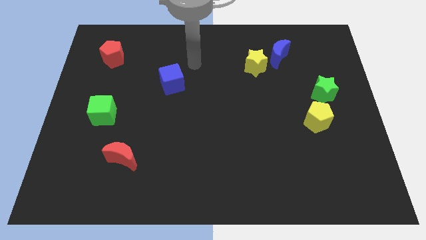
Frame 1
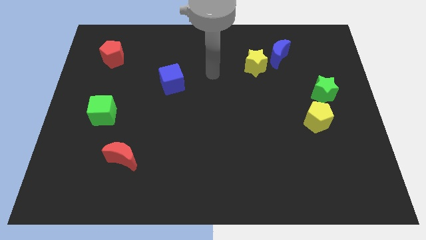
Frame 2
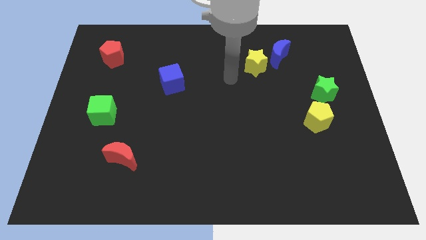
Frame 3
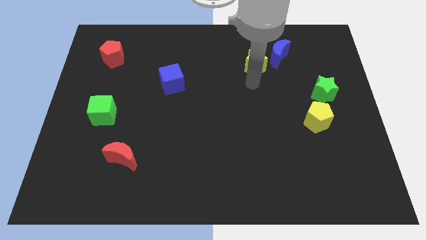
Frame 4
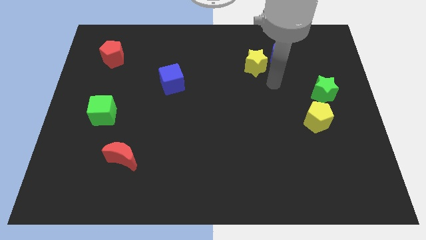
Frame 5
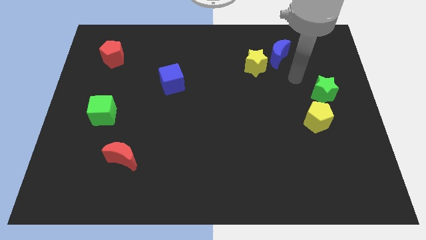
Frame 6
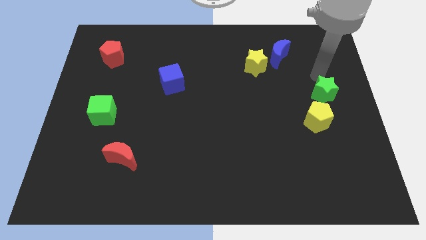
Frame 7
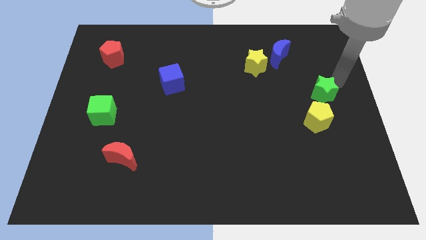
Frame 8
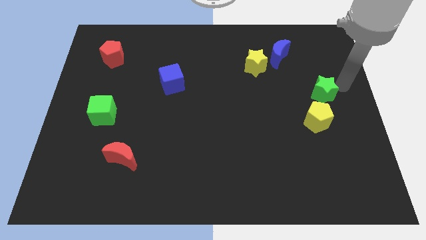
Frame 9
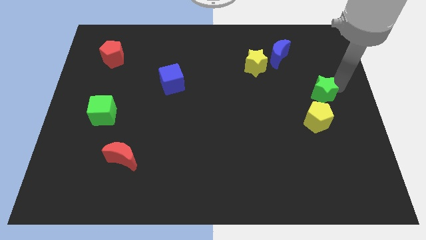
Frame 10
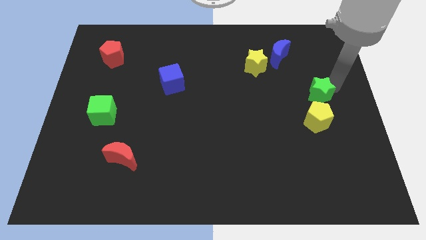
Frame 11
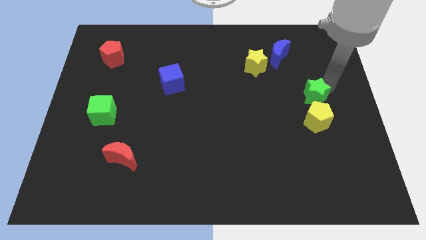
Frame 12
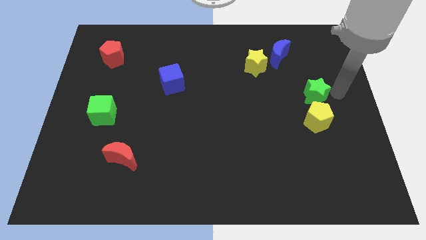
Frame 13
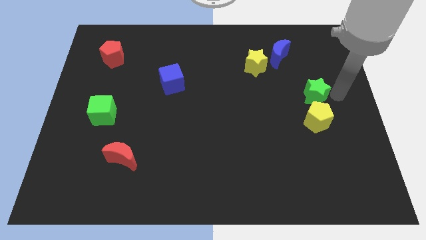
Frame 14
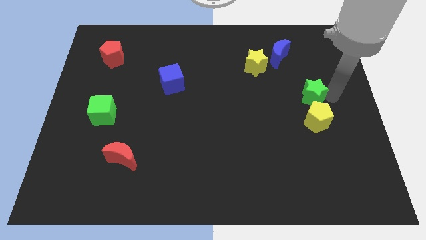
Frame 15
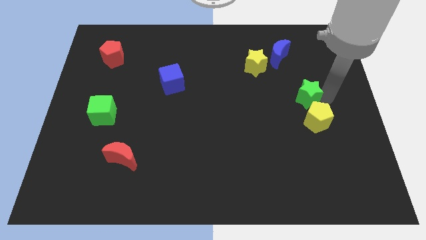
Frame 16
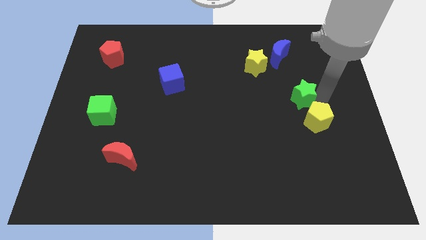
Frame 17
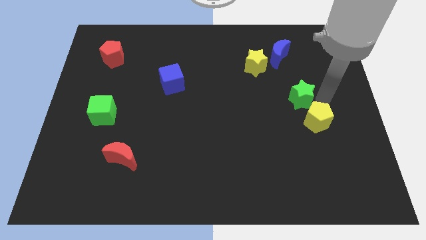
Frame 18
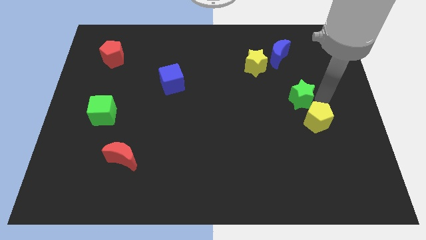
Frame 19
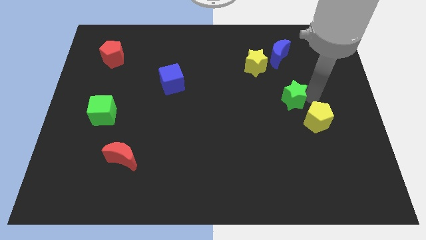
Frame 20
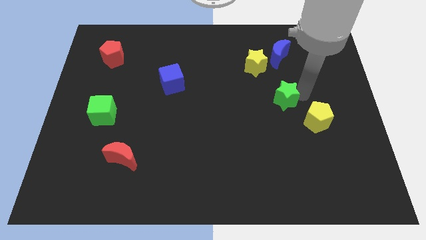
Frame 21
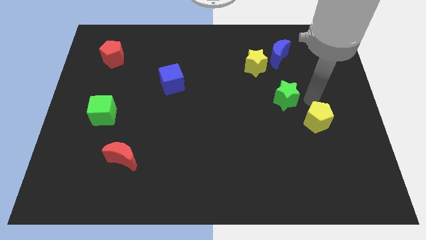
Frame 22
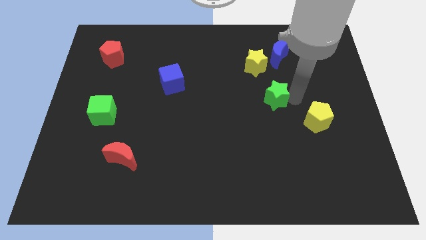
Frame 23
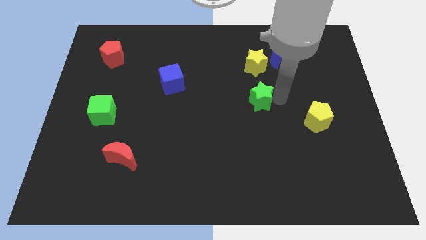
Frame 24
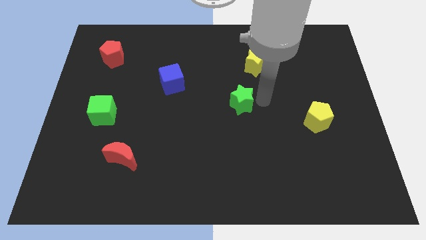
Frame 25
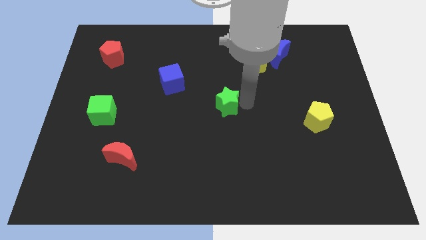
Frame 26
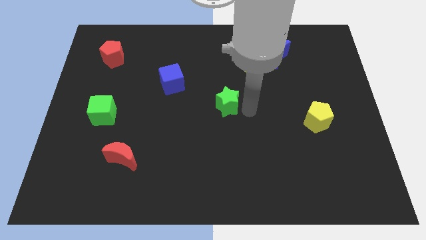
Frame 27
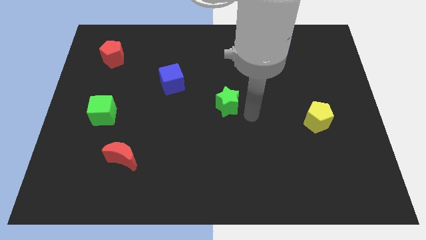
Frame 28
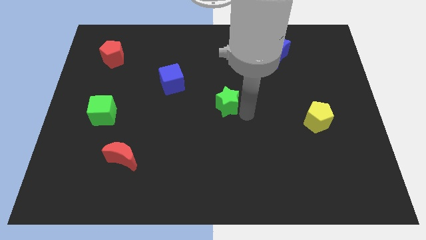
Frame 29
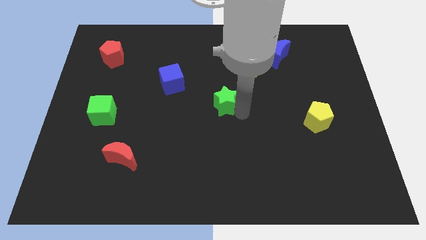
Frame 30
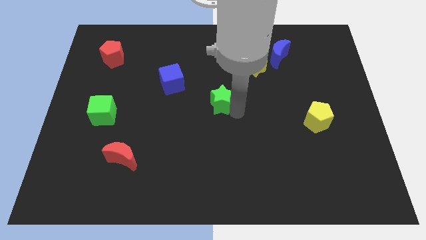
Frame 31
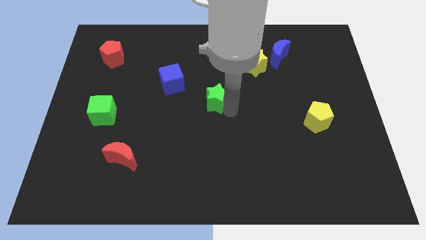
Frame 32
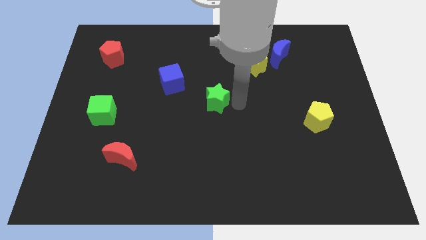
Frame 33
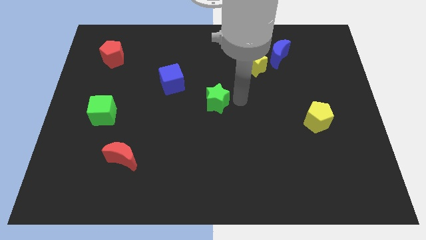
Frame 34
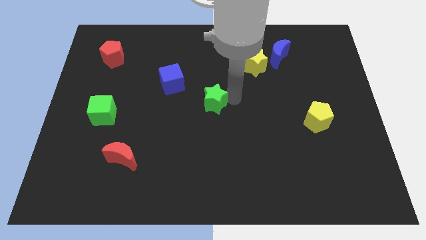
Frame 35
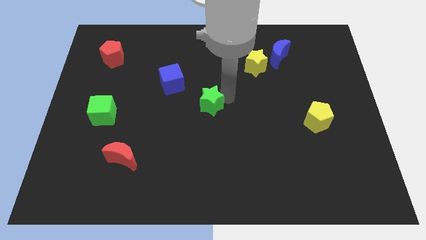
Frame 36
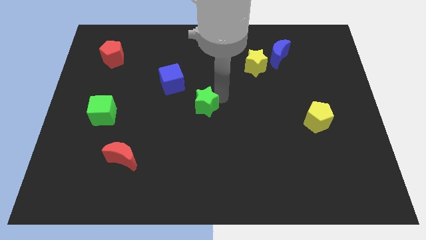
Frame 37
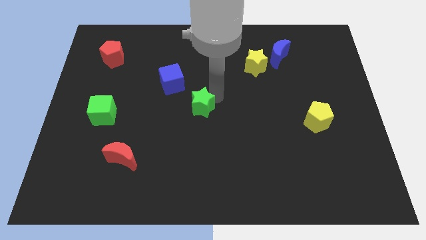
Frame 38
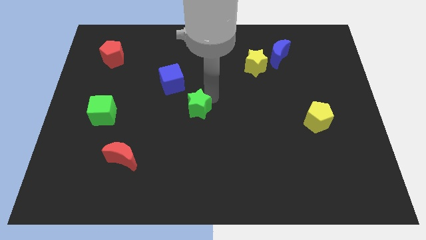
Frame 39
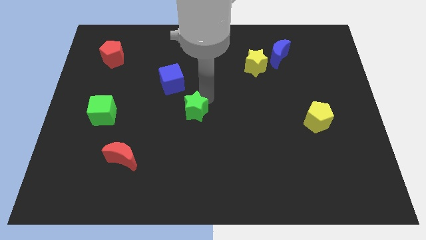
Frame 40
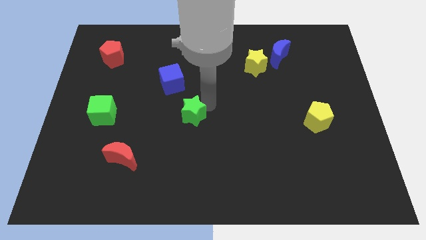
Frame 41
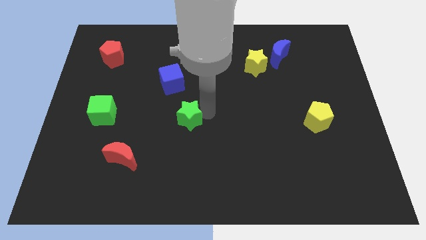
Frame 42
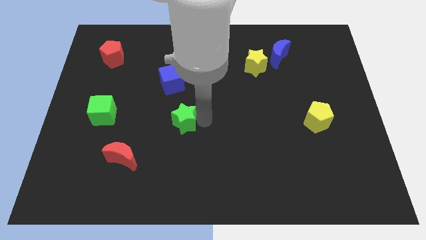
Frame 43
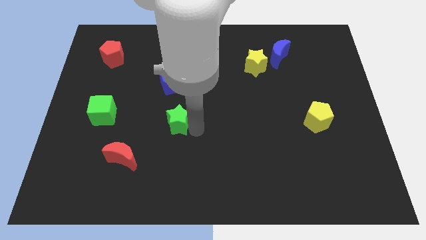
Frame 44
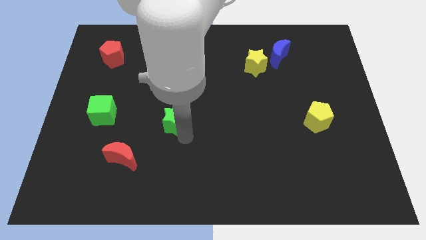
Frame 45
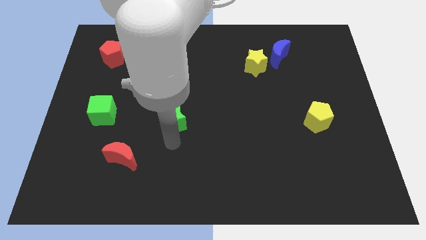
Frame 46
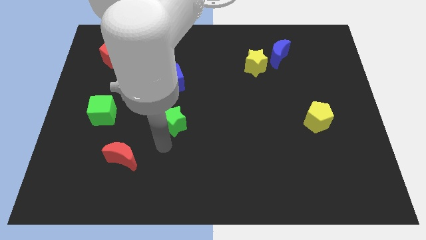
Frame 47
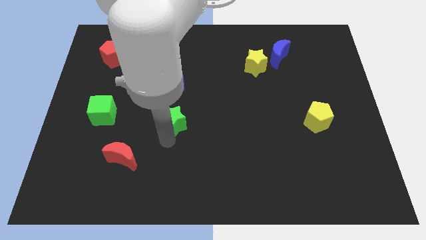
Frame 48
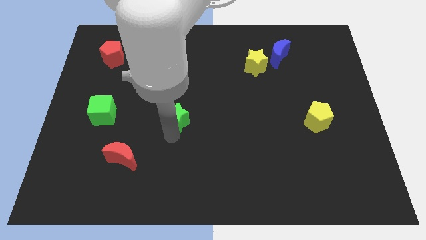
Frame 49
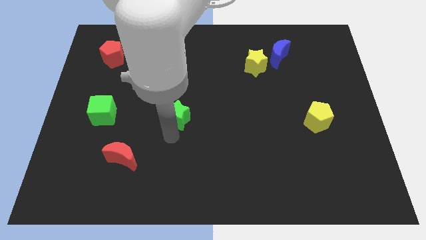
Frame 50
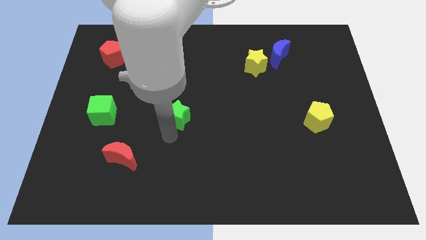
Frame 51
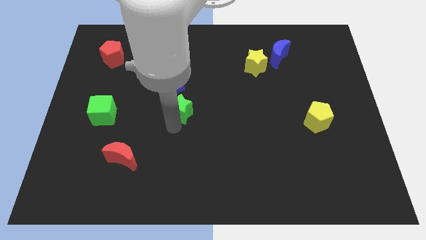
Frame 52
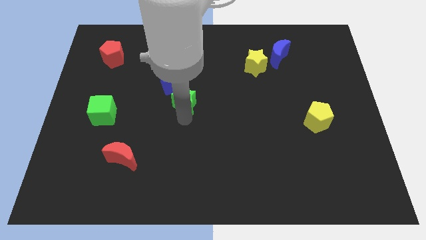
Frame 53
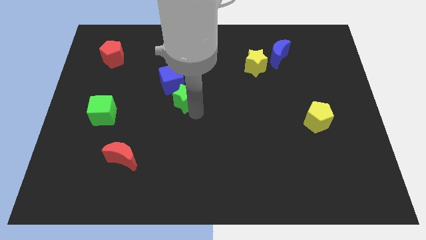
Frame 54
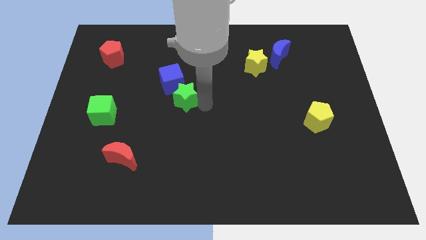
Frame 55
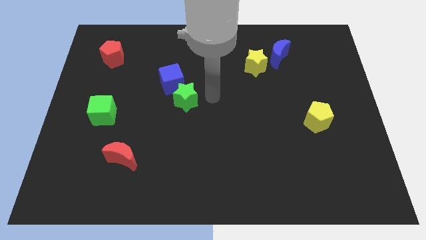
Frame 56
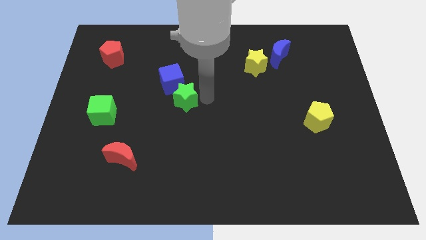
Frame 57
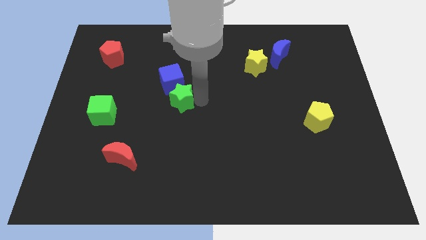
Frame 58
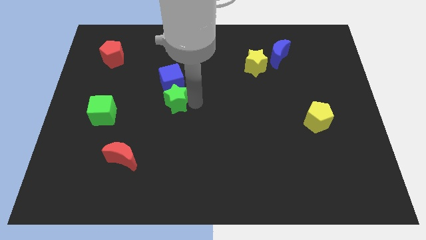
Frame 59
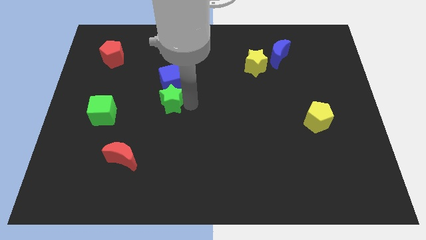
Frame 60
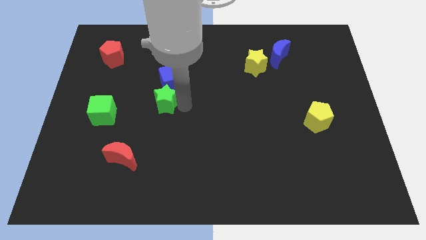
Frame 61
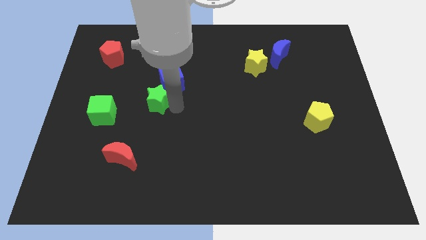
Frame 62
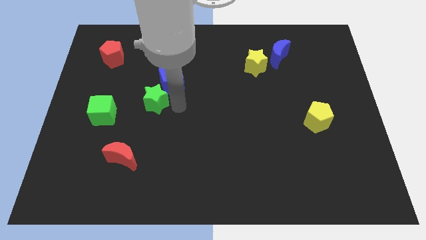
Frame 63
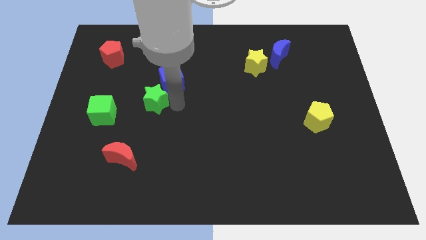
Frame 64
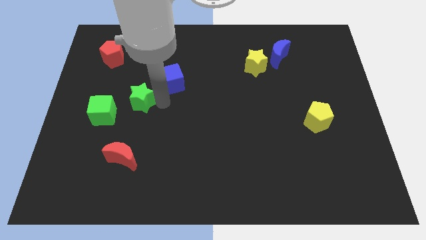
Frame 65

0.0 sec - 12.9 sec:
put the green star to the top right side of the green cube

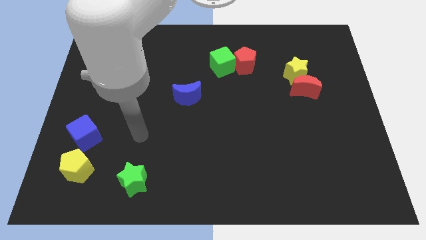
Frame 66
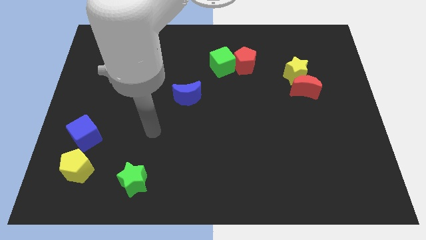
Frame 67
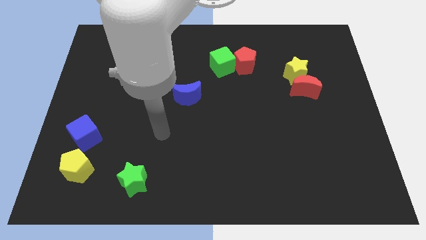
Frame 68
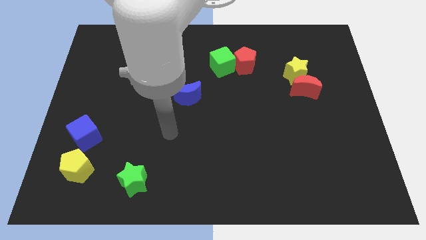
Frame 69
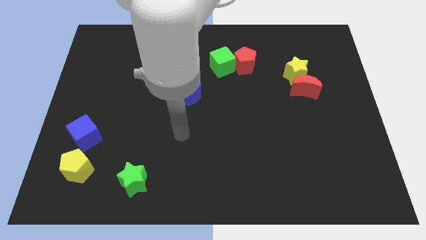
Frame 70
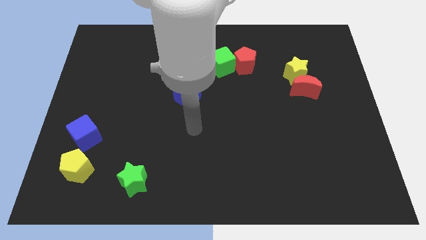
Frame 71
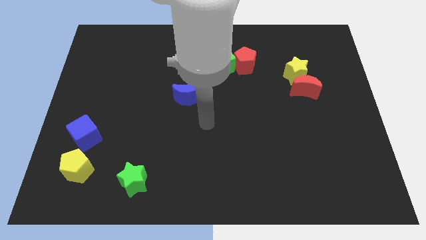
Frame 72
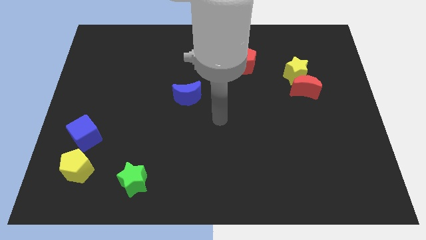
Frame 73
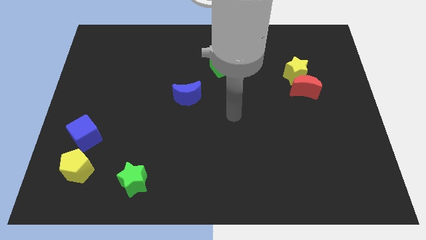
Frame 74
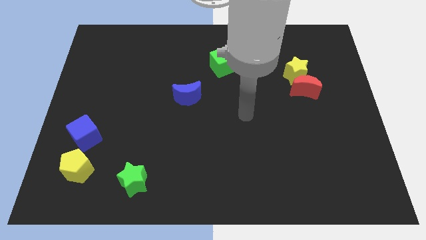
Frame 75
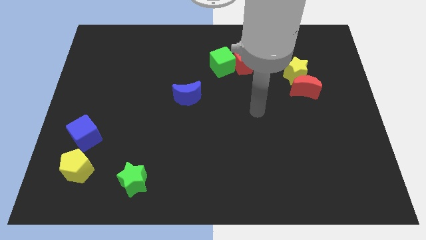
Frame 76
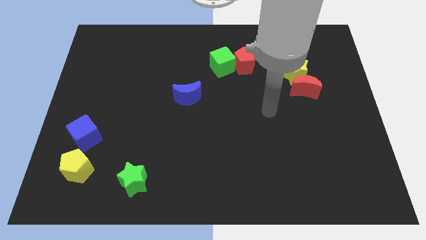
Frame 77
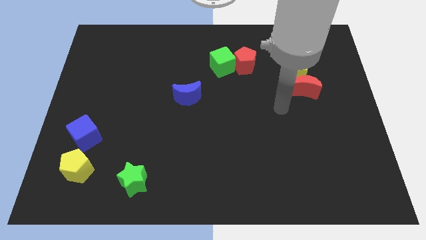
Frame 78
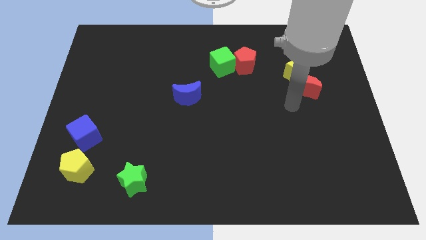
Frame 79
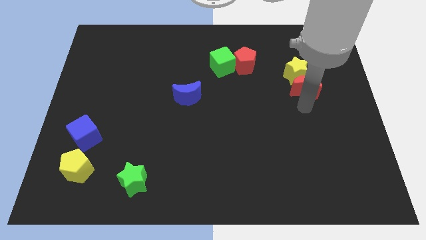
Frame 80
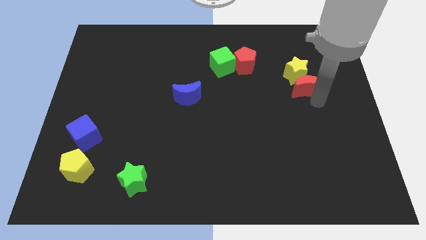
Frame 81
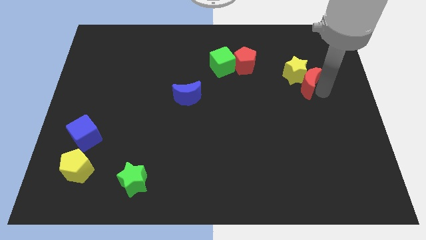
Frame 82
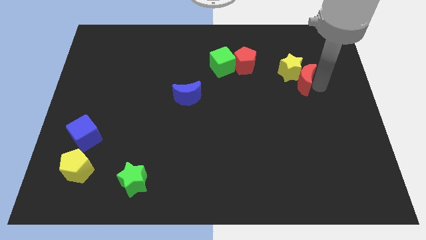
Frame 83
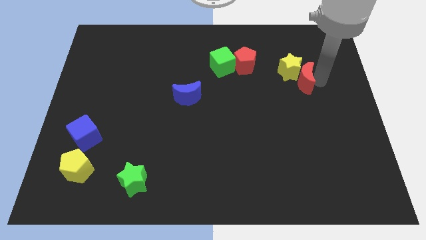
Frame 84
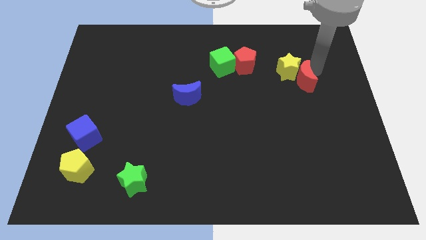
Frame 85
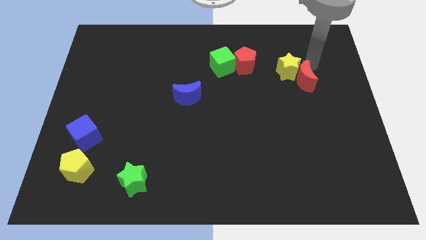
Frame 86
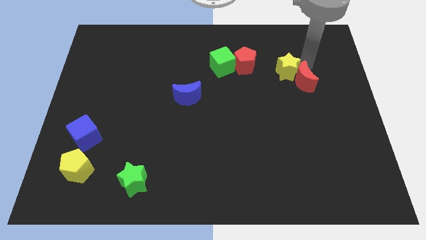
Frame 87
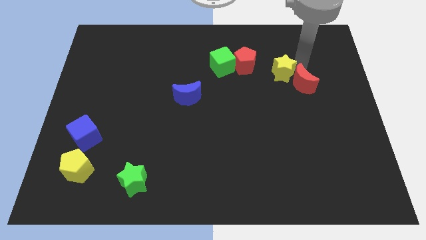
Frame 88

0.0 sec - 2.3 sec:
slide the yellow star to the bottom right of the red pentagon
